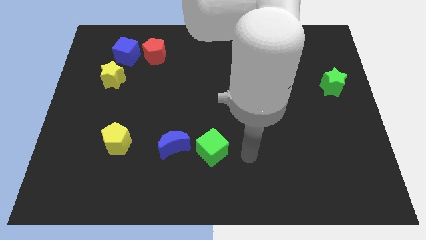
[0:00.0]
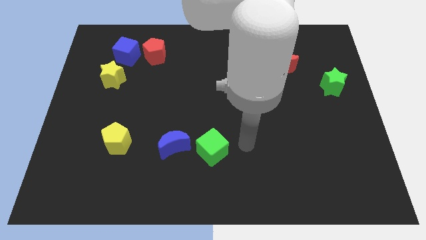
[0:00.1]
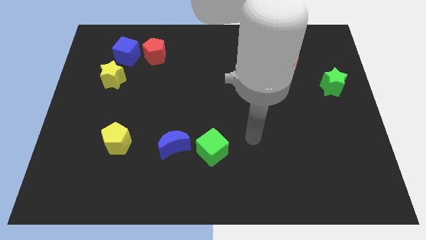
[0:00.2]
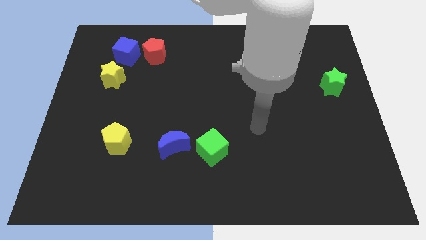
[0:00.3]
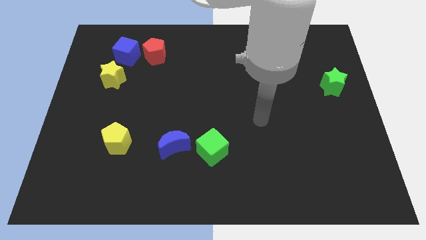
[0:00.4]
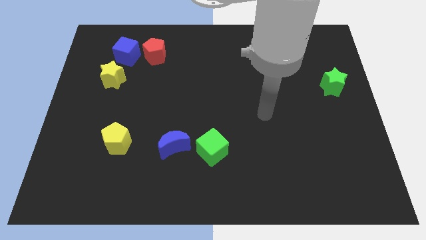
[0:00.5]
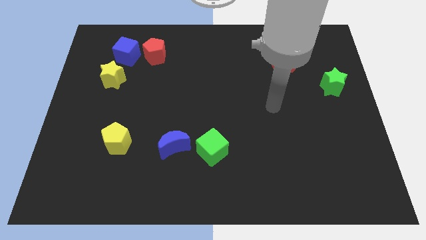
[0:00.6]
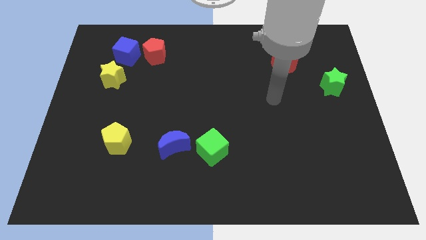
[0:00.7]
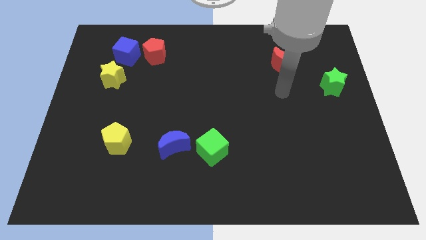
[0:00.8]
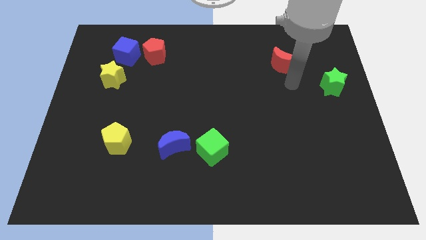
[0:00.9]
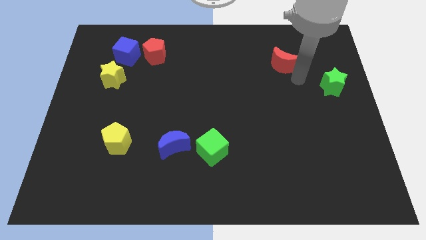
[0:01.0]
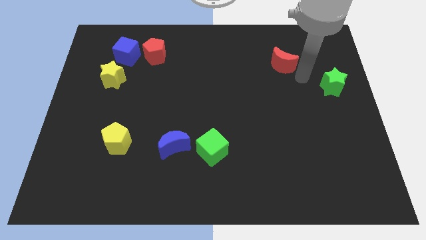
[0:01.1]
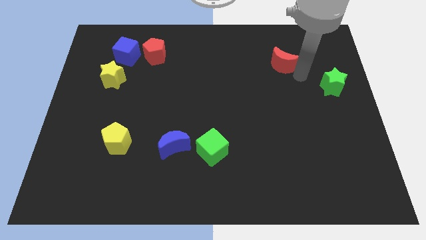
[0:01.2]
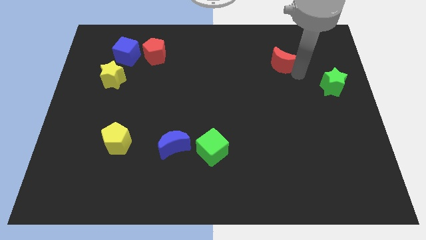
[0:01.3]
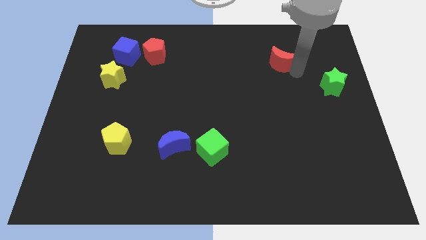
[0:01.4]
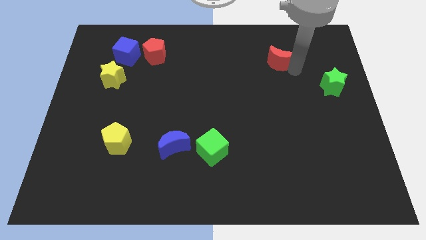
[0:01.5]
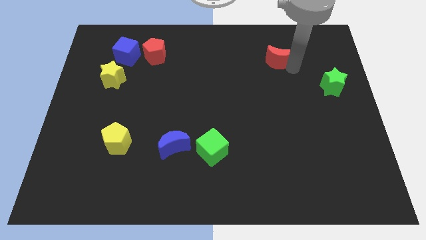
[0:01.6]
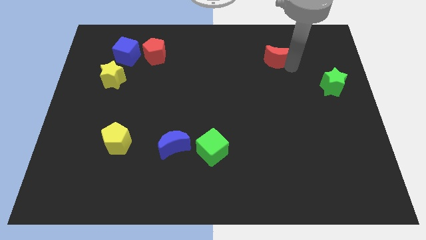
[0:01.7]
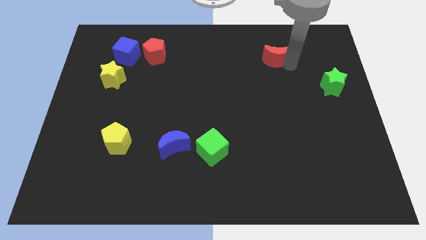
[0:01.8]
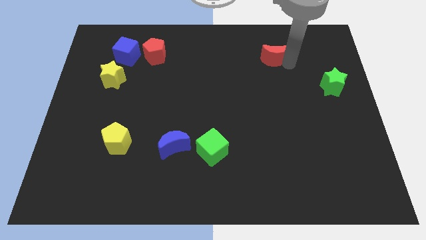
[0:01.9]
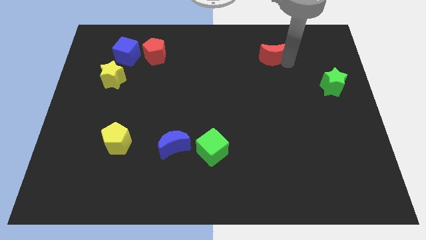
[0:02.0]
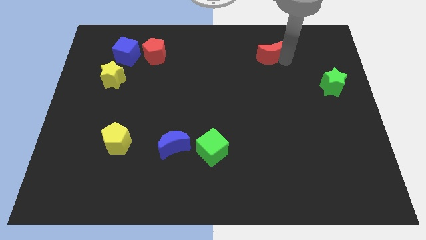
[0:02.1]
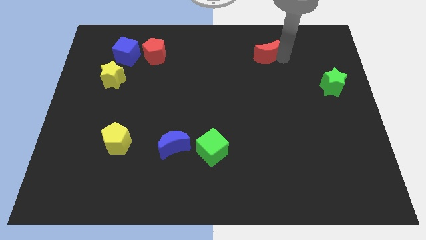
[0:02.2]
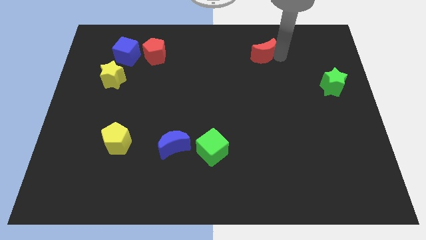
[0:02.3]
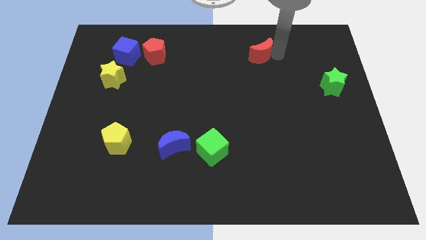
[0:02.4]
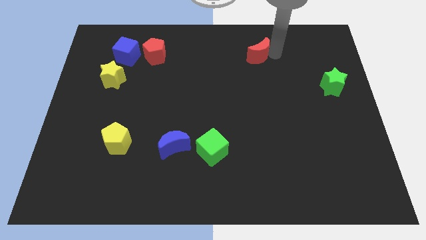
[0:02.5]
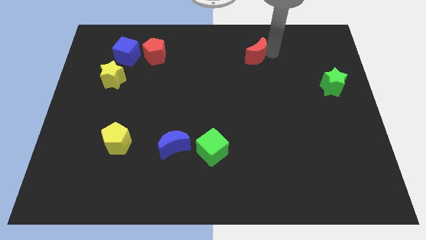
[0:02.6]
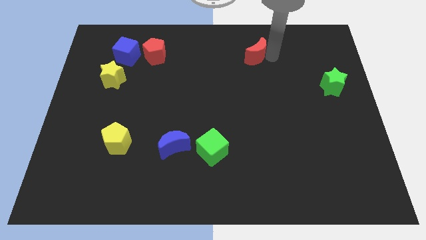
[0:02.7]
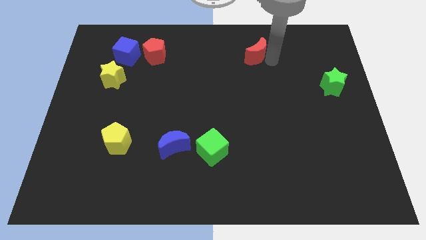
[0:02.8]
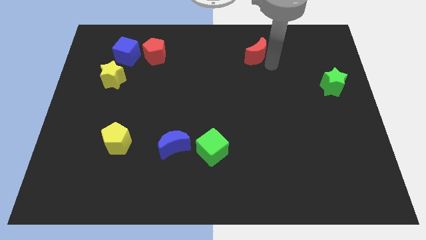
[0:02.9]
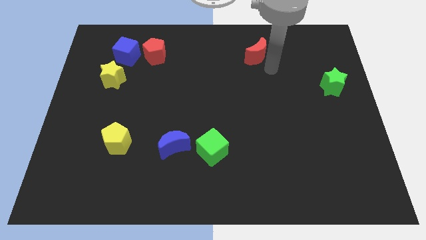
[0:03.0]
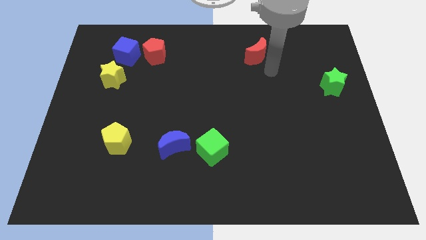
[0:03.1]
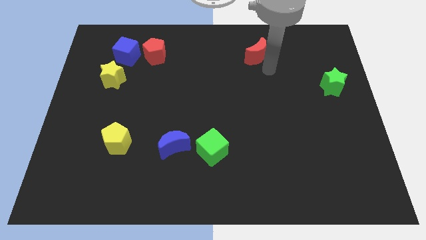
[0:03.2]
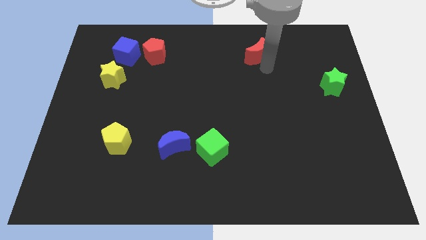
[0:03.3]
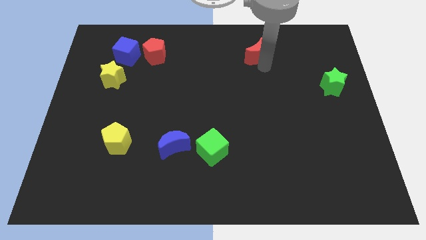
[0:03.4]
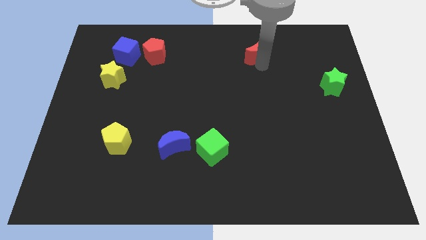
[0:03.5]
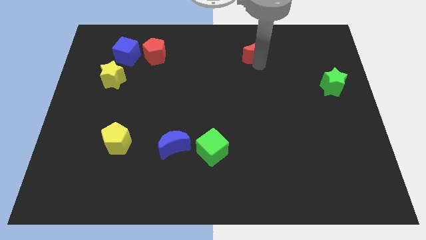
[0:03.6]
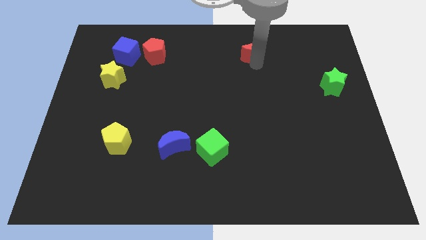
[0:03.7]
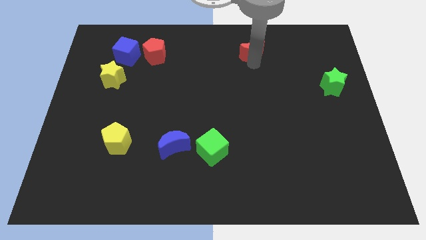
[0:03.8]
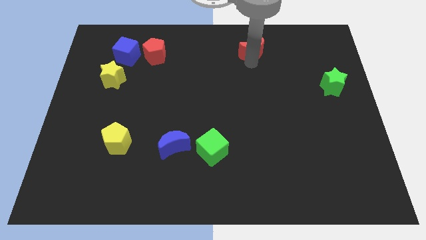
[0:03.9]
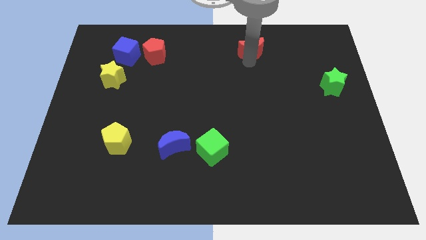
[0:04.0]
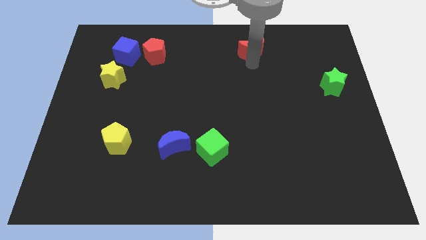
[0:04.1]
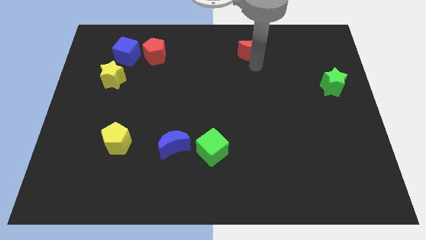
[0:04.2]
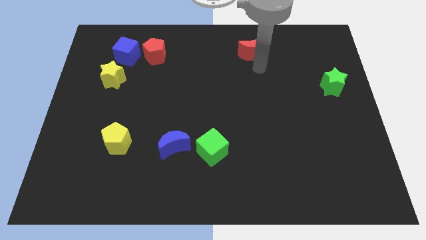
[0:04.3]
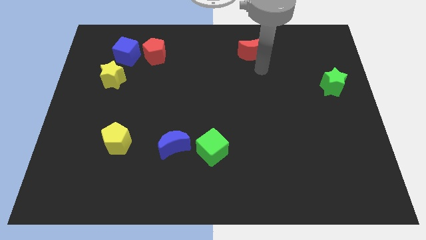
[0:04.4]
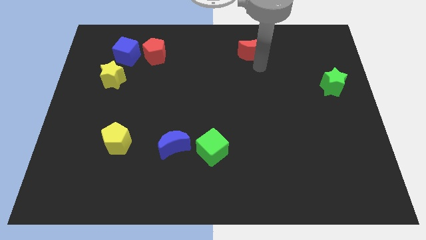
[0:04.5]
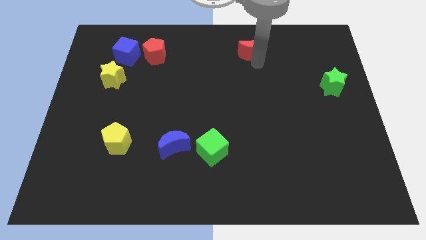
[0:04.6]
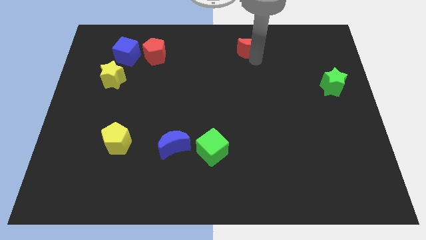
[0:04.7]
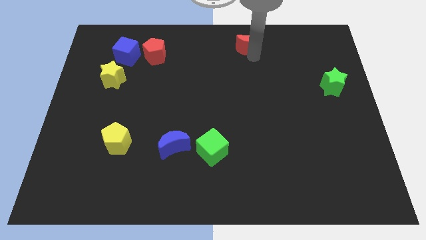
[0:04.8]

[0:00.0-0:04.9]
move the red moon to the top side

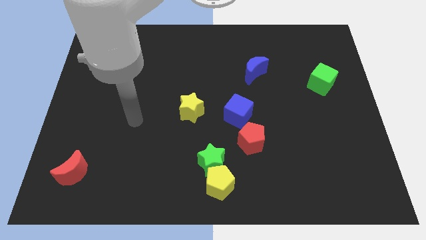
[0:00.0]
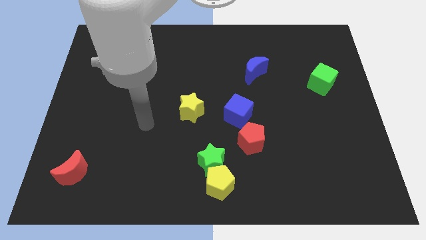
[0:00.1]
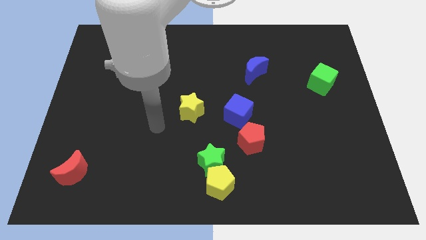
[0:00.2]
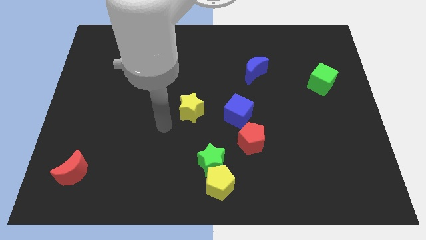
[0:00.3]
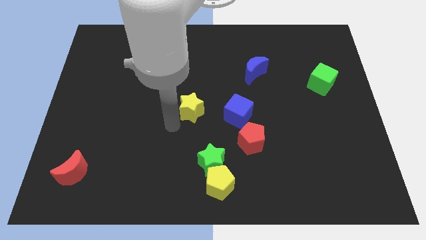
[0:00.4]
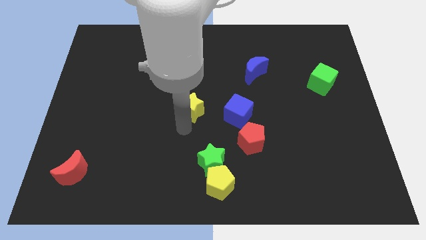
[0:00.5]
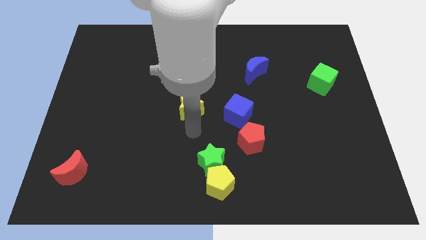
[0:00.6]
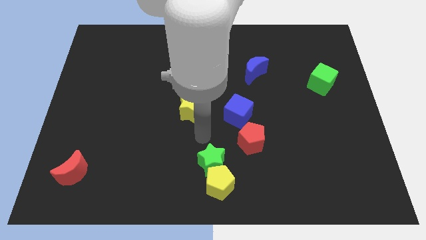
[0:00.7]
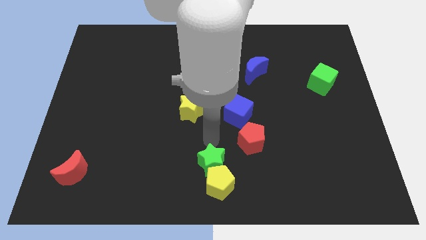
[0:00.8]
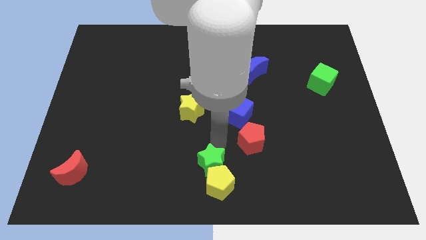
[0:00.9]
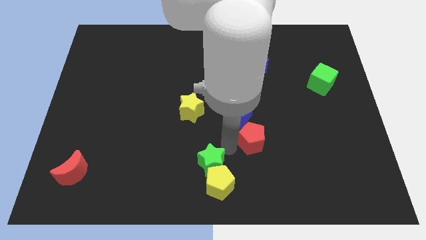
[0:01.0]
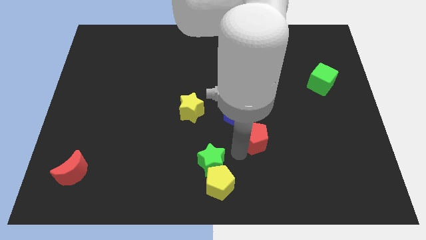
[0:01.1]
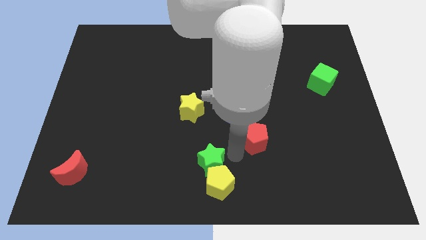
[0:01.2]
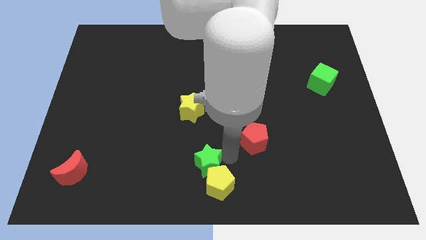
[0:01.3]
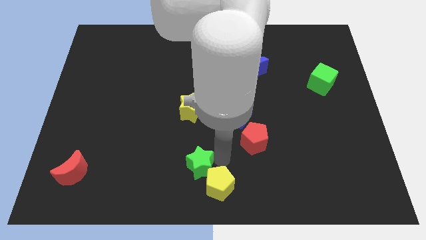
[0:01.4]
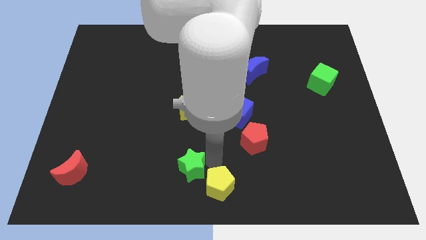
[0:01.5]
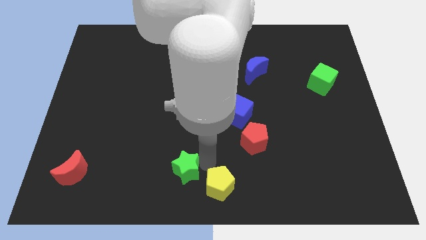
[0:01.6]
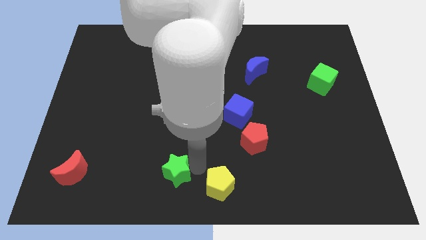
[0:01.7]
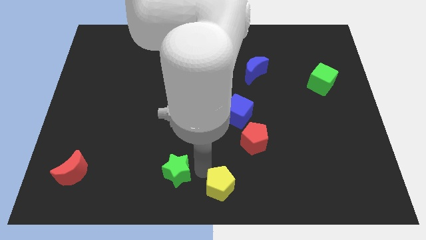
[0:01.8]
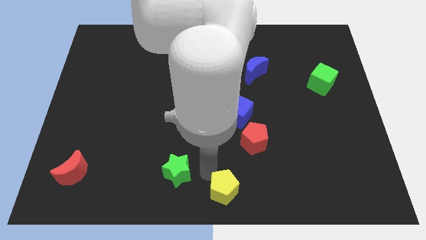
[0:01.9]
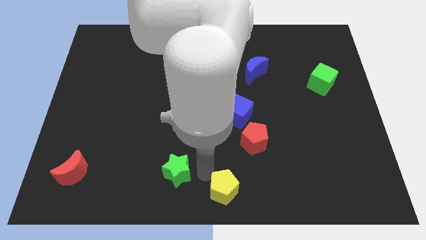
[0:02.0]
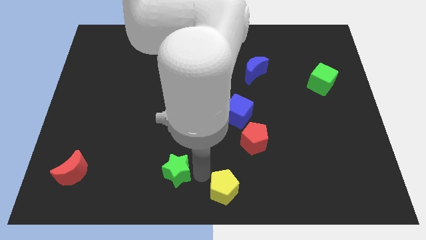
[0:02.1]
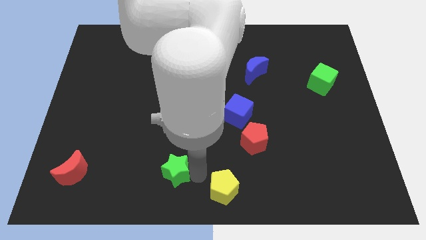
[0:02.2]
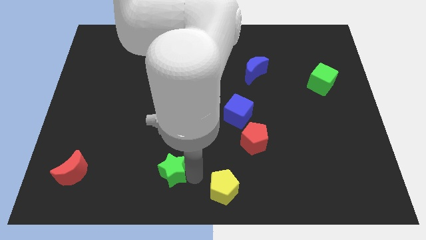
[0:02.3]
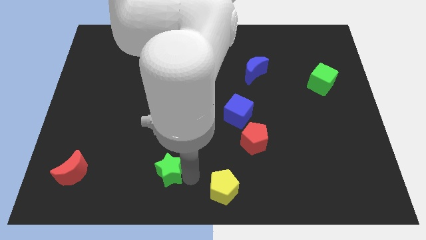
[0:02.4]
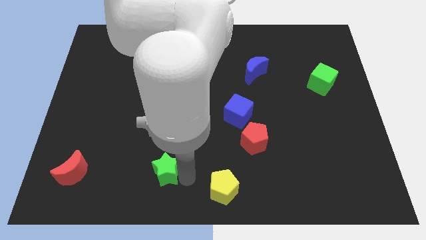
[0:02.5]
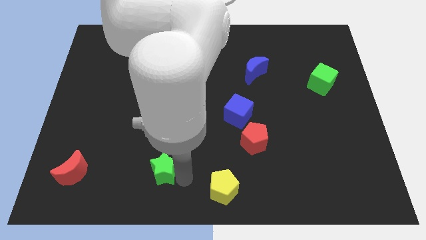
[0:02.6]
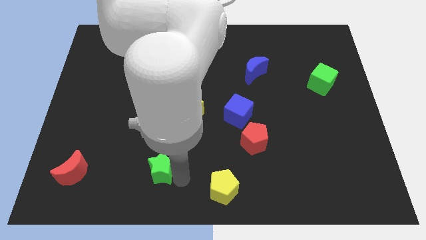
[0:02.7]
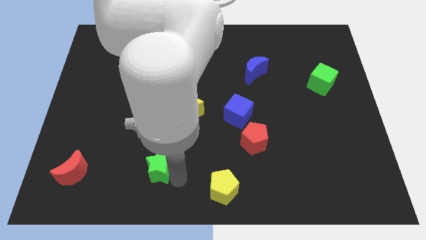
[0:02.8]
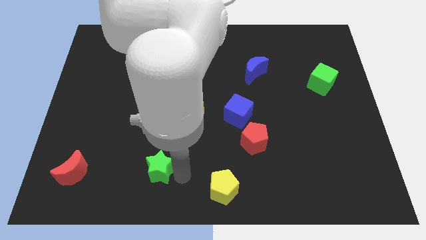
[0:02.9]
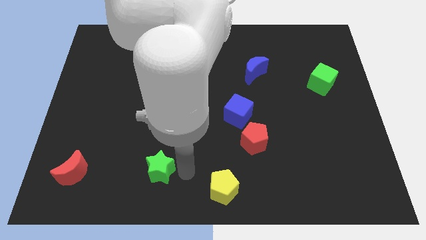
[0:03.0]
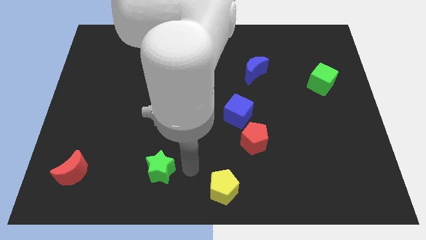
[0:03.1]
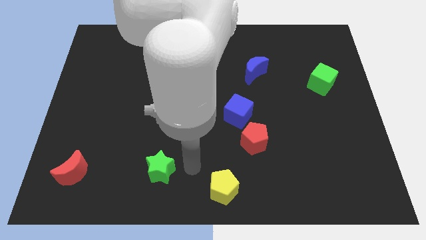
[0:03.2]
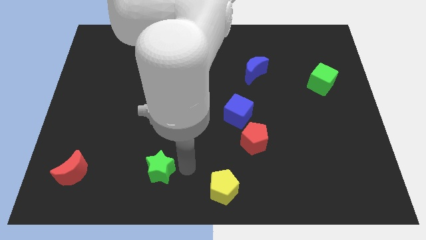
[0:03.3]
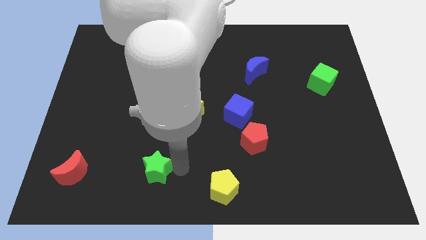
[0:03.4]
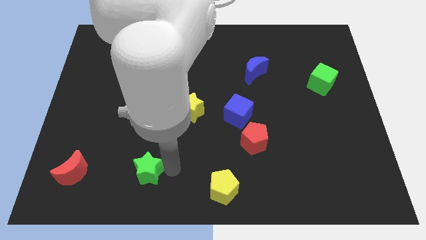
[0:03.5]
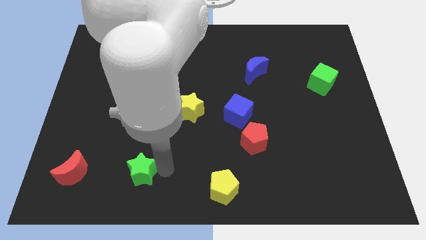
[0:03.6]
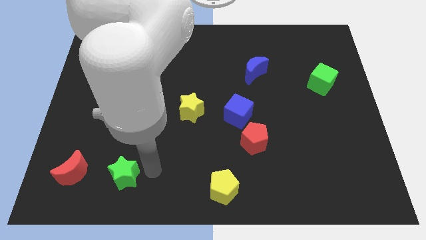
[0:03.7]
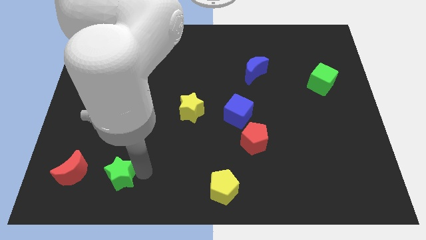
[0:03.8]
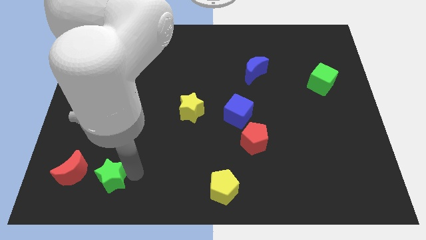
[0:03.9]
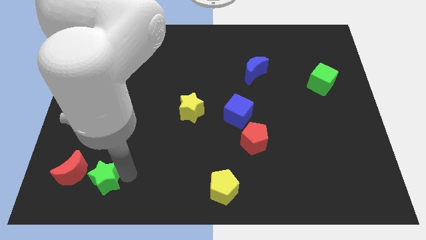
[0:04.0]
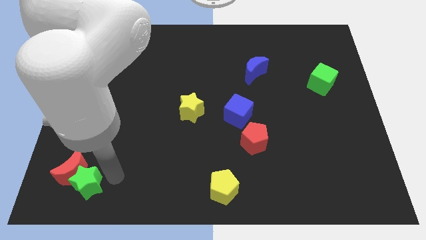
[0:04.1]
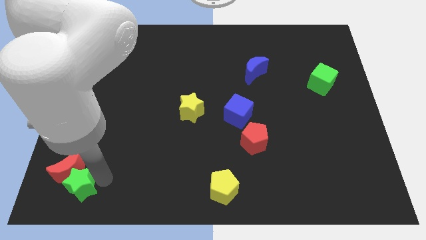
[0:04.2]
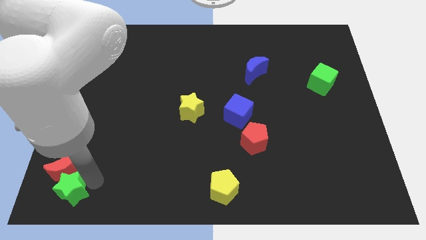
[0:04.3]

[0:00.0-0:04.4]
push the green star to the bottom left
